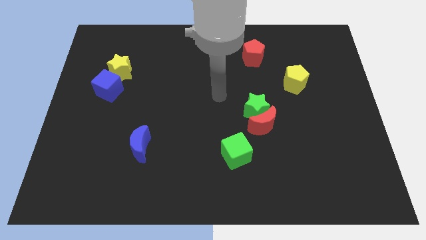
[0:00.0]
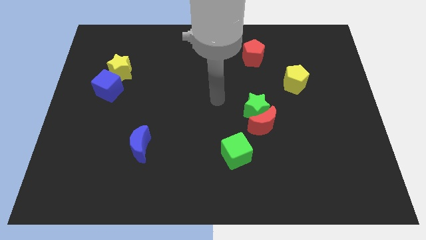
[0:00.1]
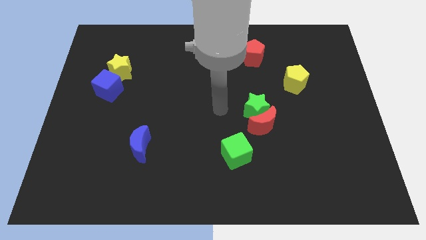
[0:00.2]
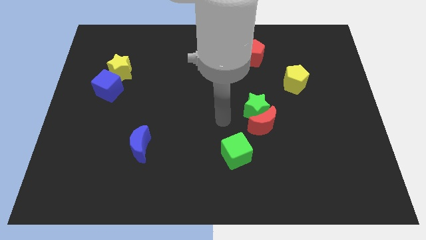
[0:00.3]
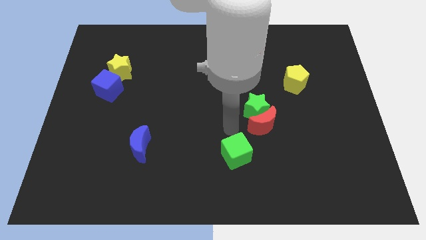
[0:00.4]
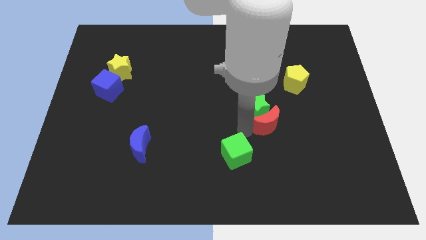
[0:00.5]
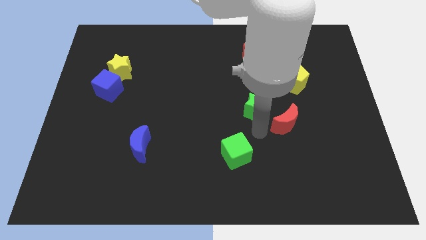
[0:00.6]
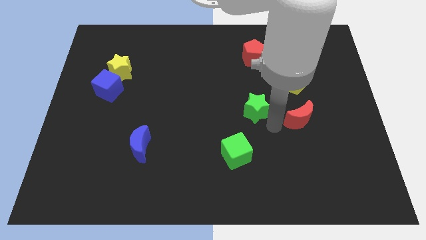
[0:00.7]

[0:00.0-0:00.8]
pull the green star apart from the red moon

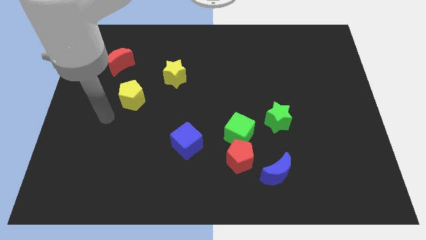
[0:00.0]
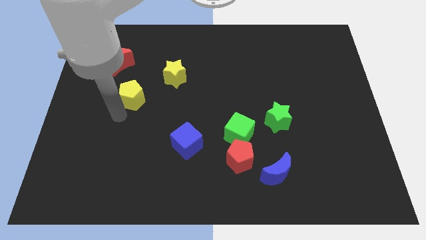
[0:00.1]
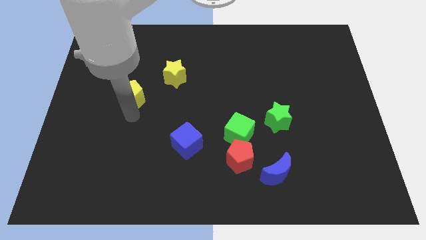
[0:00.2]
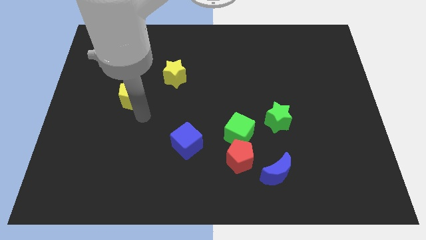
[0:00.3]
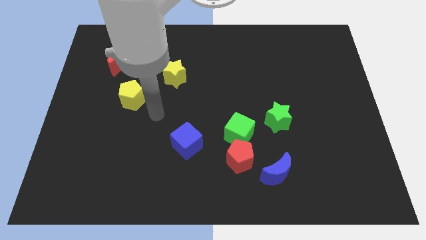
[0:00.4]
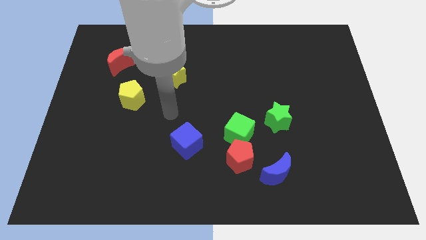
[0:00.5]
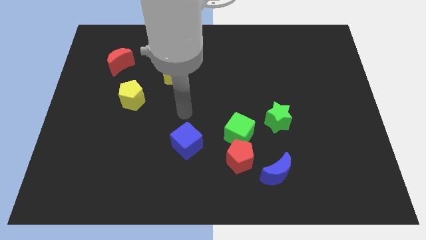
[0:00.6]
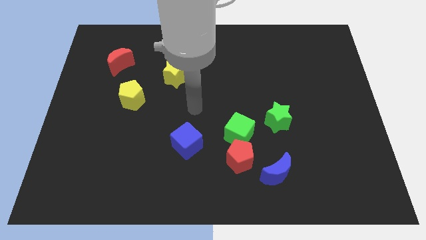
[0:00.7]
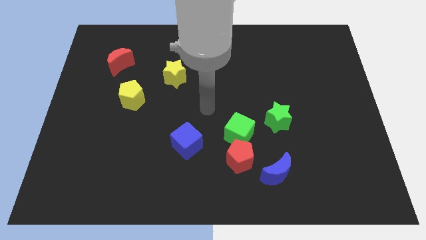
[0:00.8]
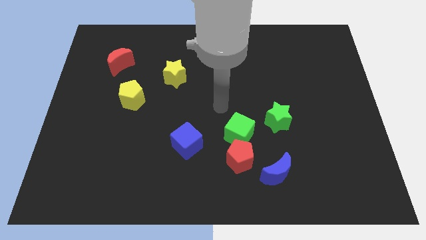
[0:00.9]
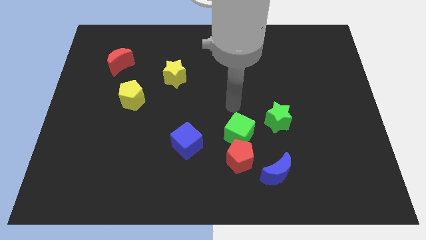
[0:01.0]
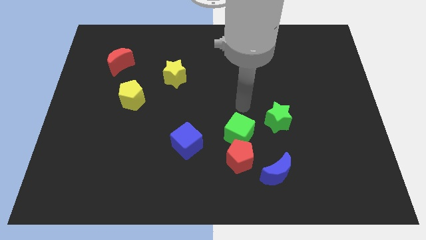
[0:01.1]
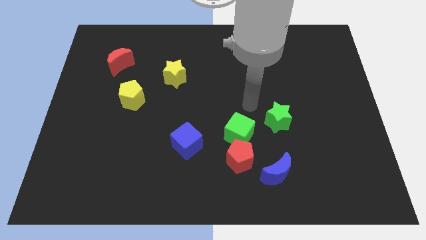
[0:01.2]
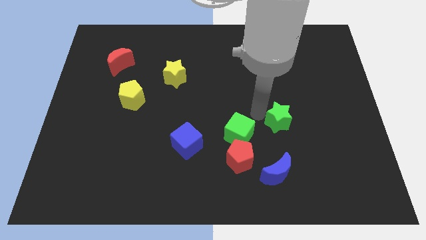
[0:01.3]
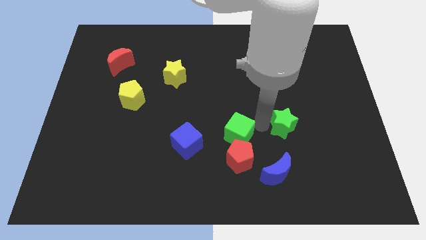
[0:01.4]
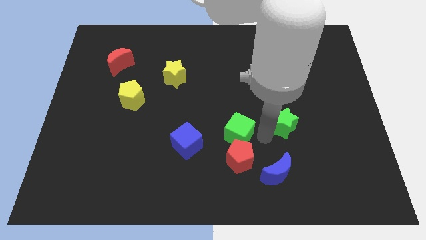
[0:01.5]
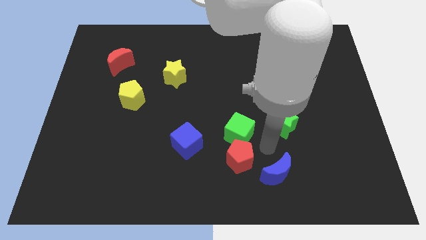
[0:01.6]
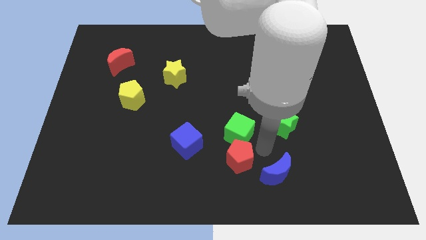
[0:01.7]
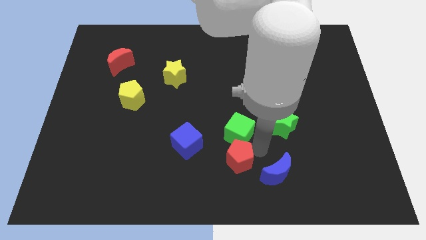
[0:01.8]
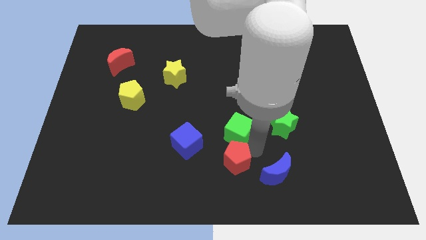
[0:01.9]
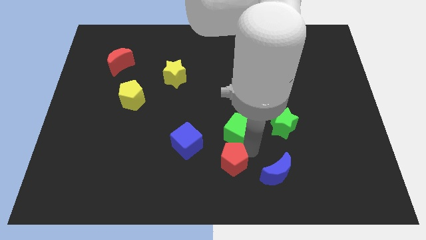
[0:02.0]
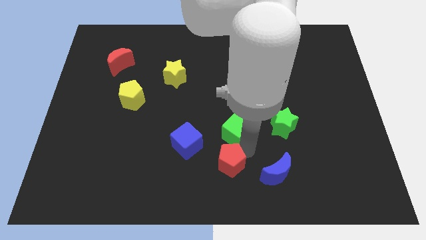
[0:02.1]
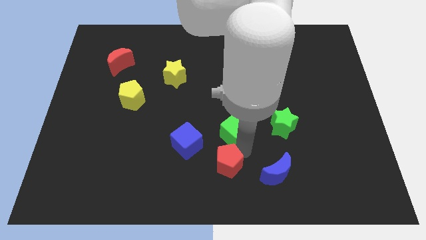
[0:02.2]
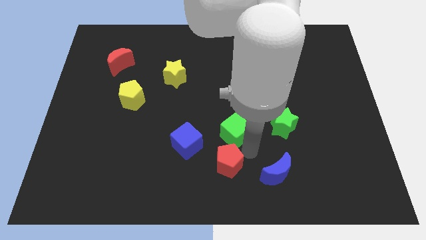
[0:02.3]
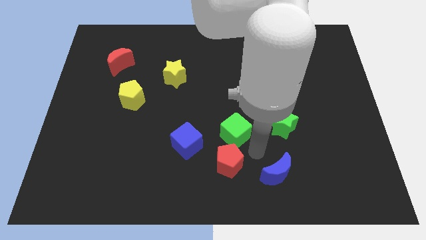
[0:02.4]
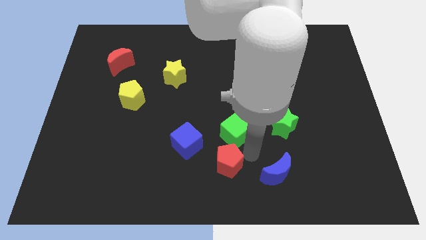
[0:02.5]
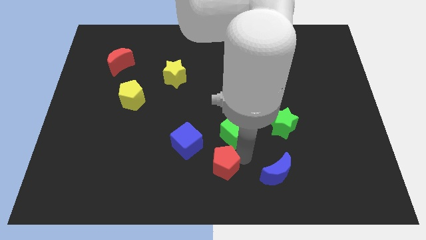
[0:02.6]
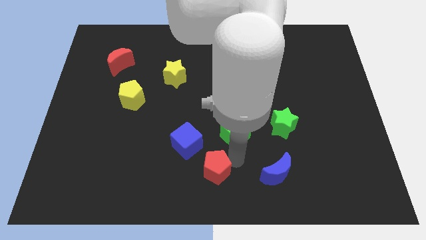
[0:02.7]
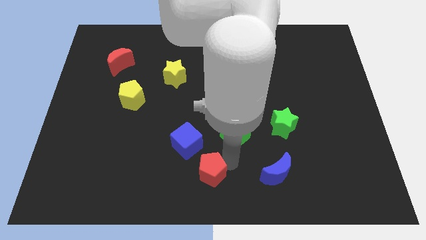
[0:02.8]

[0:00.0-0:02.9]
move the red pentagon away from the green cube and blue moon

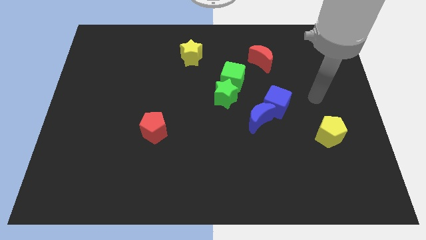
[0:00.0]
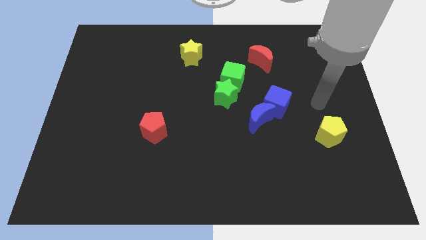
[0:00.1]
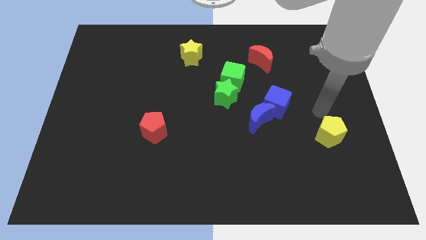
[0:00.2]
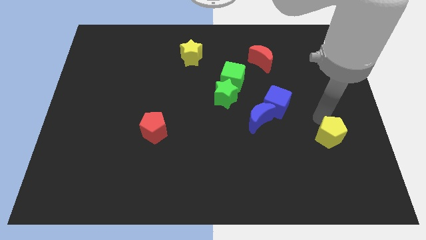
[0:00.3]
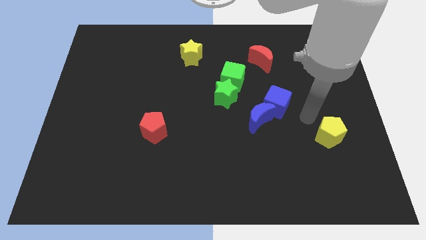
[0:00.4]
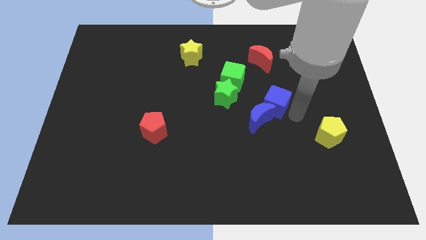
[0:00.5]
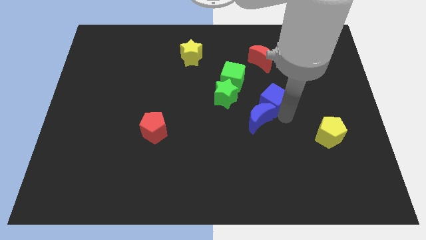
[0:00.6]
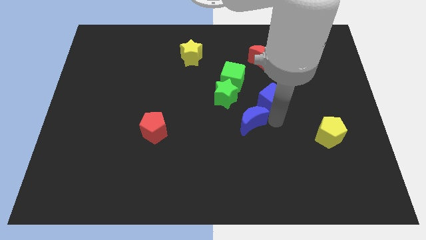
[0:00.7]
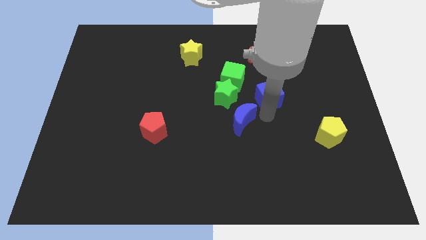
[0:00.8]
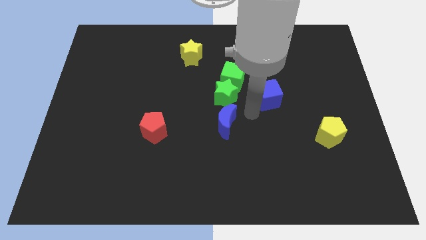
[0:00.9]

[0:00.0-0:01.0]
move the blue cube away from the blue moon

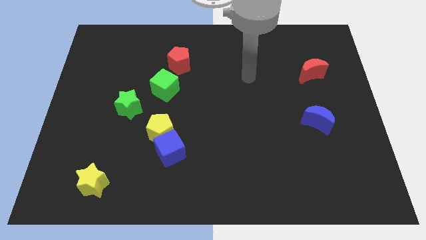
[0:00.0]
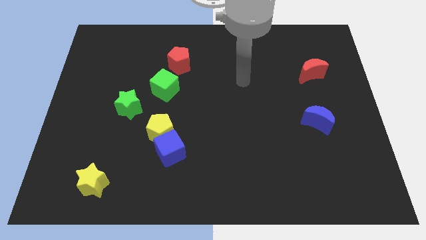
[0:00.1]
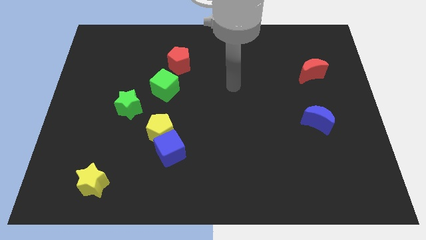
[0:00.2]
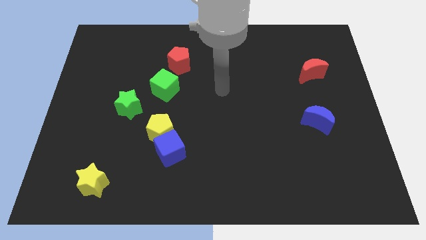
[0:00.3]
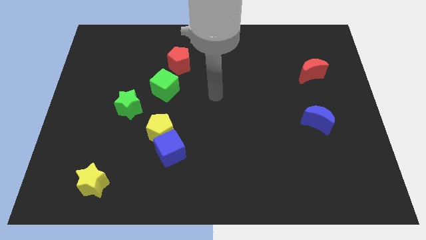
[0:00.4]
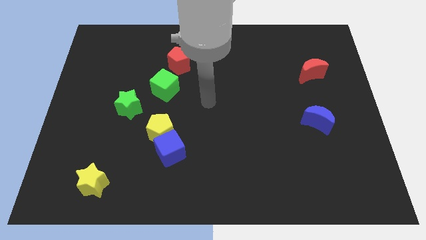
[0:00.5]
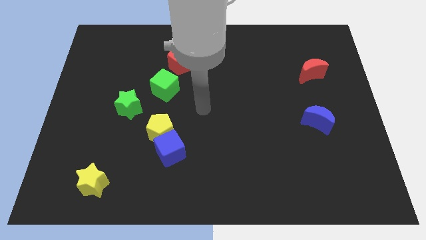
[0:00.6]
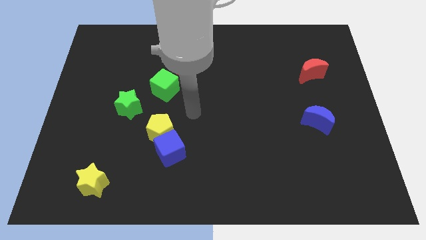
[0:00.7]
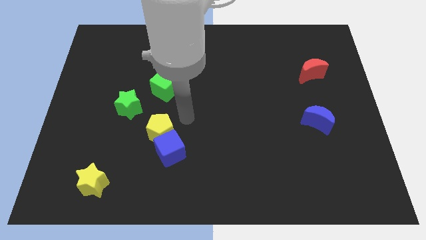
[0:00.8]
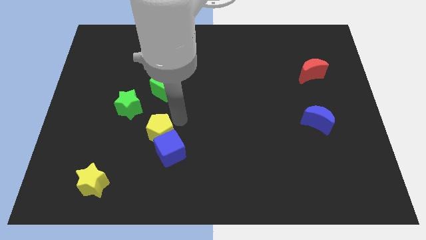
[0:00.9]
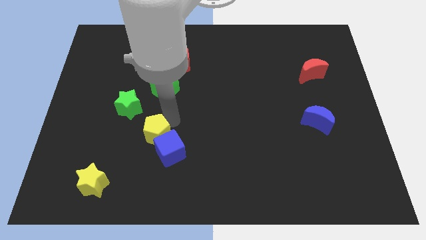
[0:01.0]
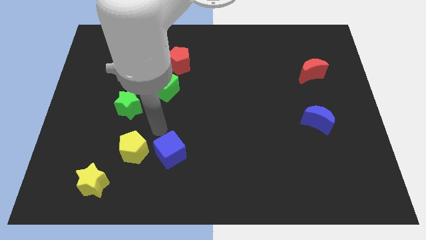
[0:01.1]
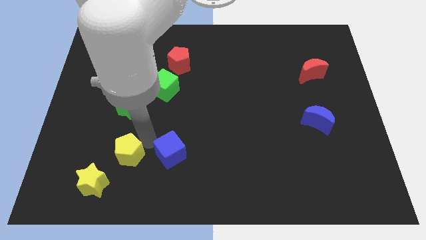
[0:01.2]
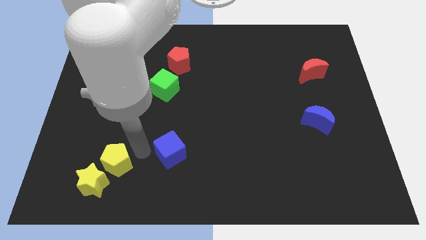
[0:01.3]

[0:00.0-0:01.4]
move the blue cube away from the yellow pentagon

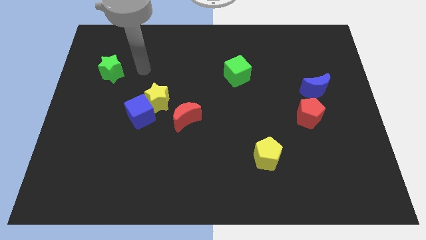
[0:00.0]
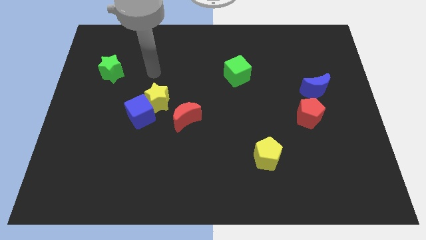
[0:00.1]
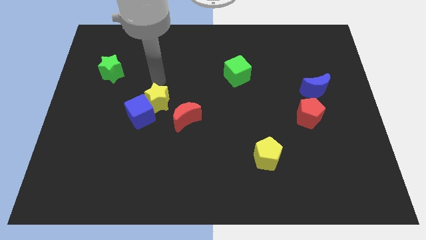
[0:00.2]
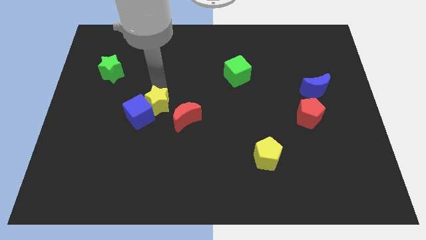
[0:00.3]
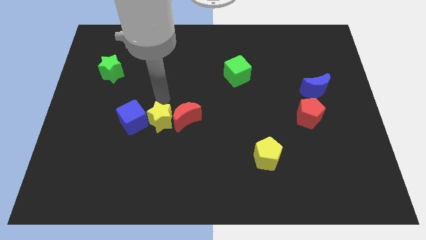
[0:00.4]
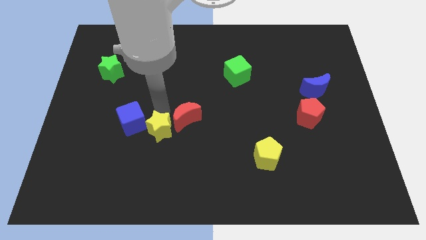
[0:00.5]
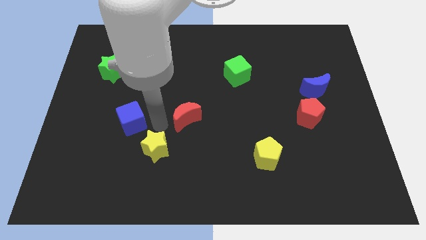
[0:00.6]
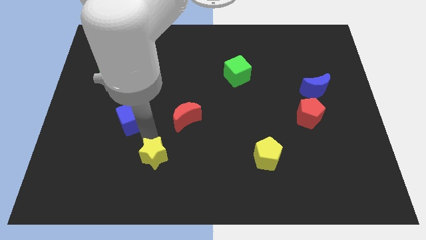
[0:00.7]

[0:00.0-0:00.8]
pull the blue cube apart from the yellow star

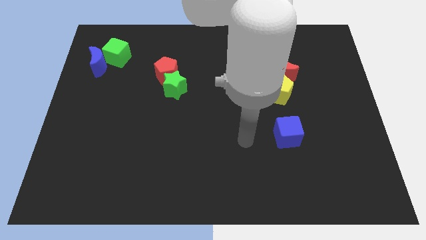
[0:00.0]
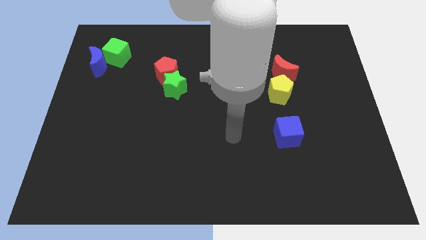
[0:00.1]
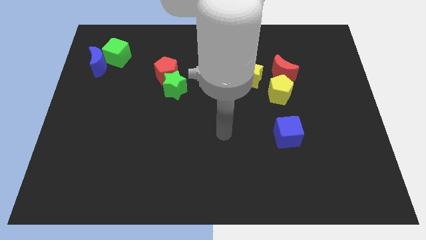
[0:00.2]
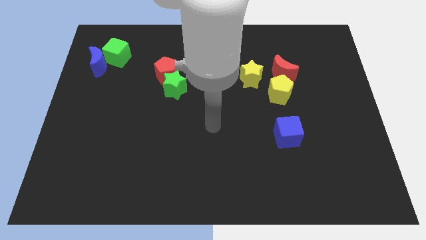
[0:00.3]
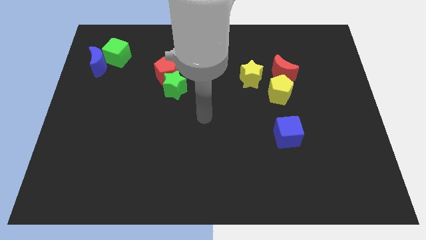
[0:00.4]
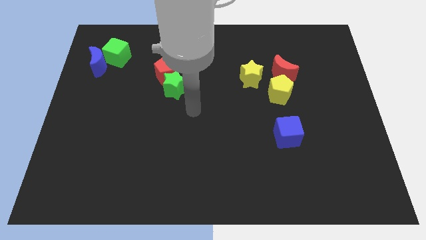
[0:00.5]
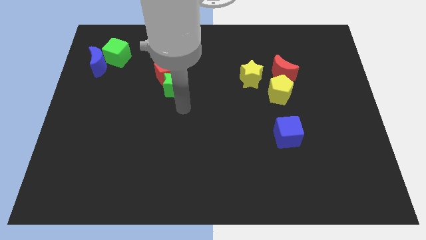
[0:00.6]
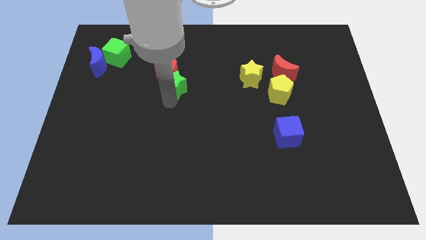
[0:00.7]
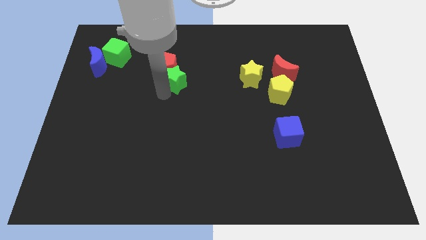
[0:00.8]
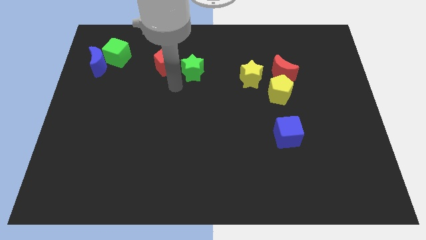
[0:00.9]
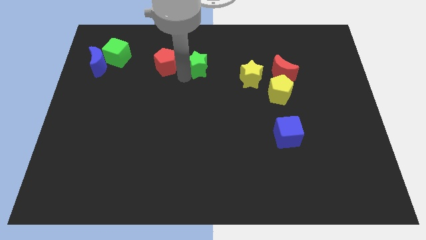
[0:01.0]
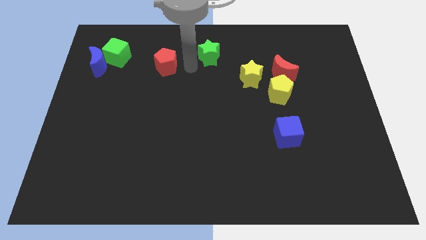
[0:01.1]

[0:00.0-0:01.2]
separate the red pentagon from the green star

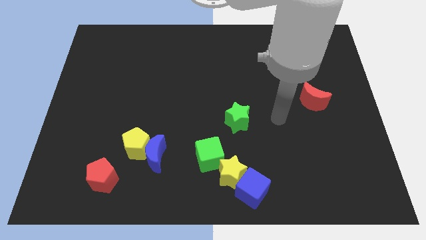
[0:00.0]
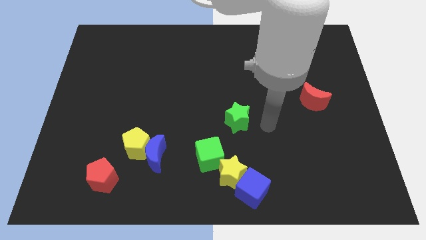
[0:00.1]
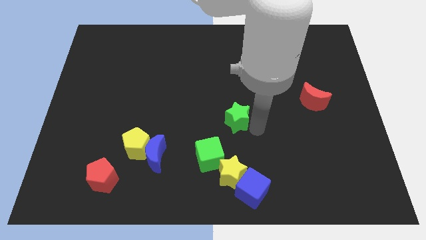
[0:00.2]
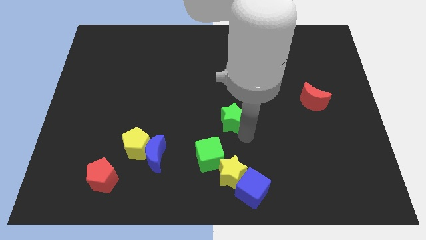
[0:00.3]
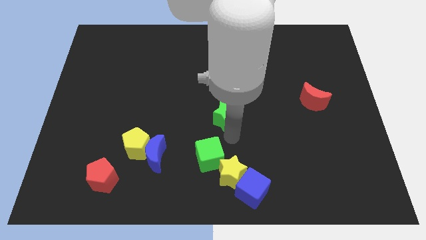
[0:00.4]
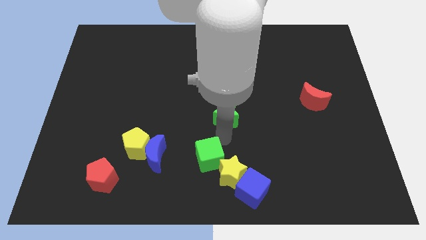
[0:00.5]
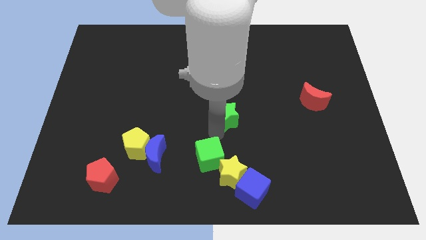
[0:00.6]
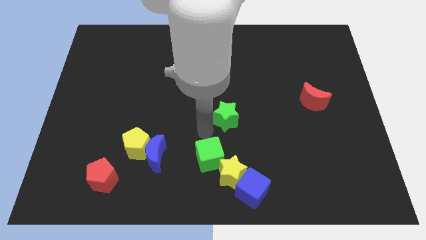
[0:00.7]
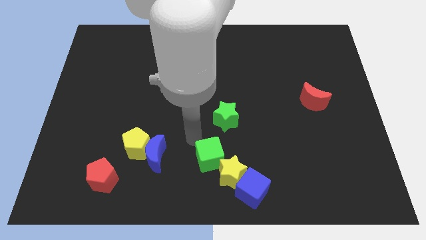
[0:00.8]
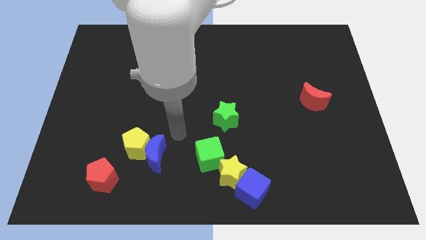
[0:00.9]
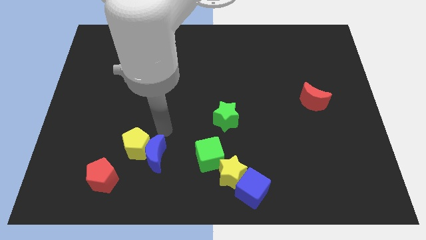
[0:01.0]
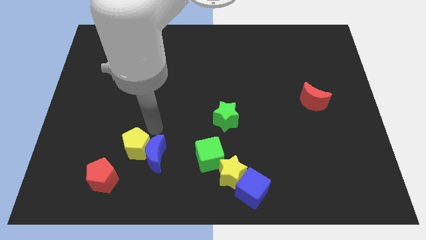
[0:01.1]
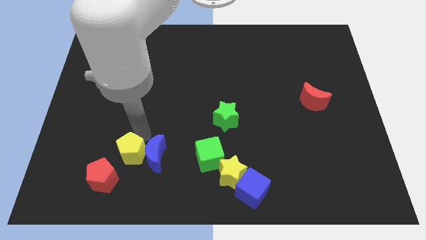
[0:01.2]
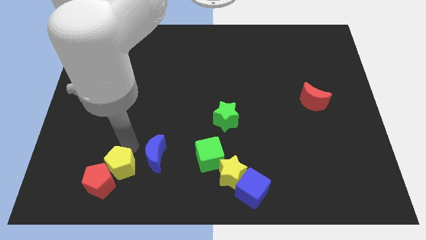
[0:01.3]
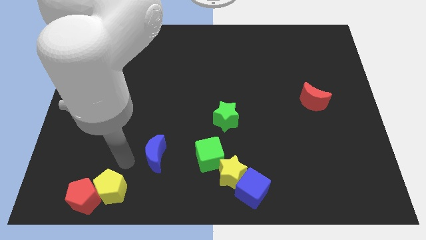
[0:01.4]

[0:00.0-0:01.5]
move the blue moon away from the yellow pentagon
